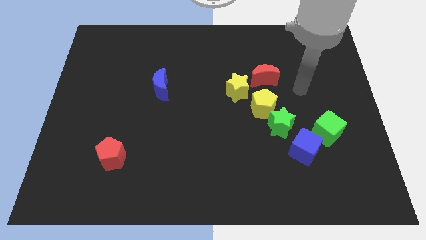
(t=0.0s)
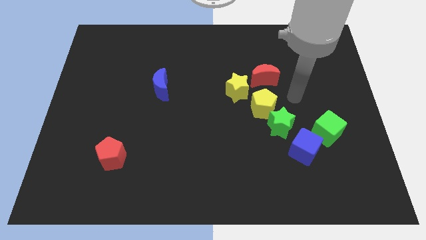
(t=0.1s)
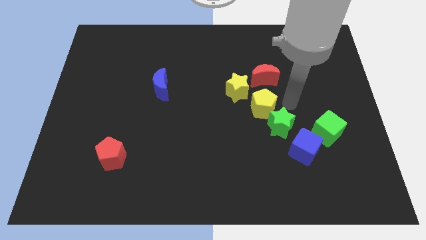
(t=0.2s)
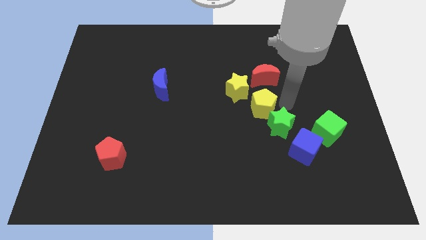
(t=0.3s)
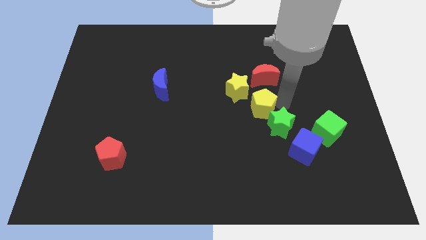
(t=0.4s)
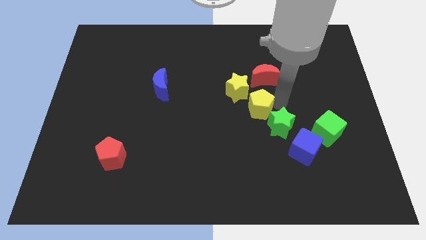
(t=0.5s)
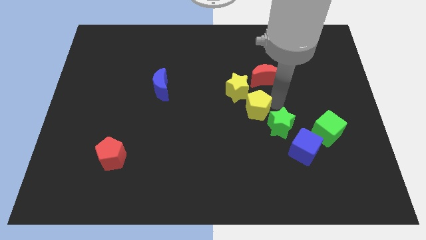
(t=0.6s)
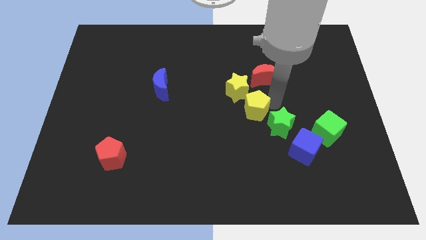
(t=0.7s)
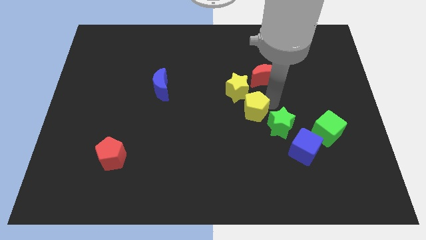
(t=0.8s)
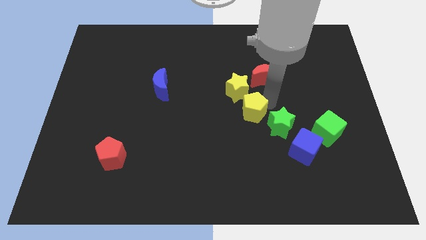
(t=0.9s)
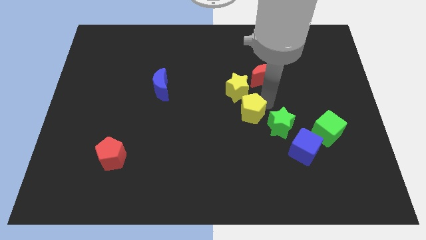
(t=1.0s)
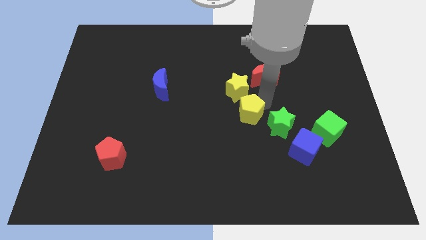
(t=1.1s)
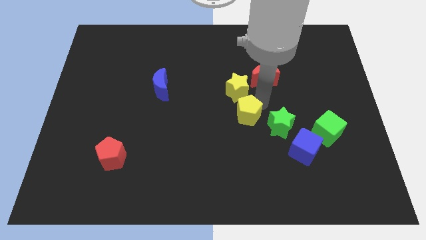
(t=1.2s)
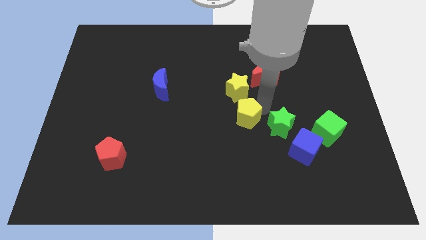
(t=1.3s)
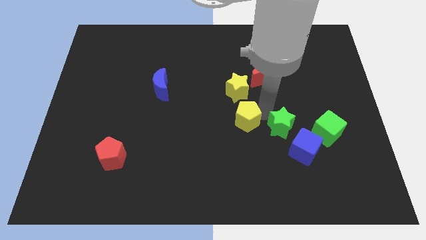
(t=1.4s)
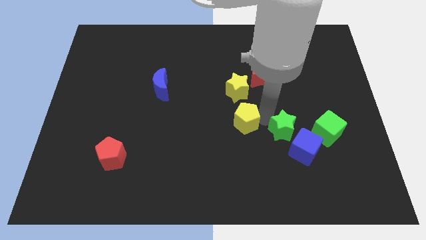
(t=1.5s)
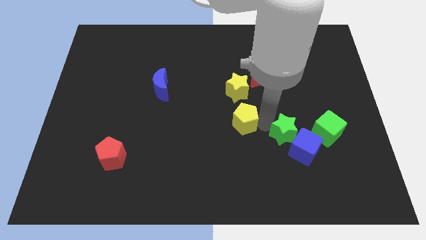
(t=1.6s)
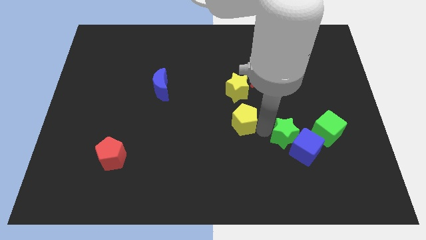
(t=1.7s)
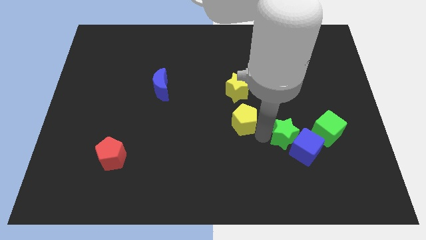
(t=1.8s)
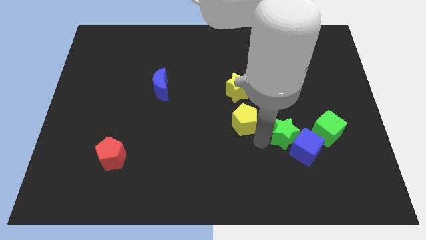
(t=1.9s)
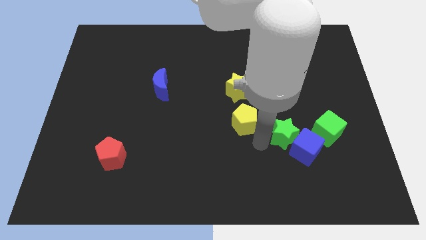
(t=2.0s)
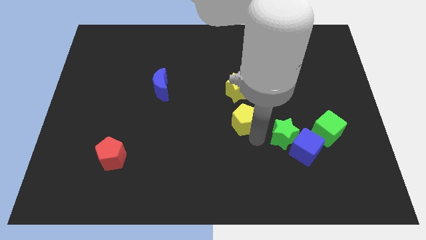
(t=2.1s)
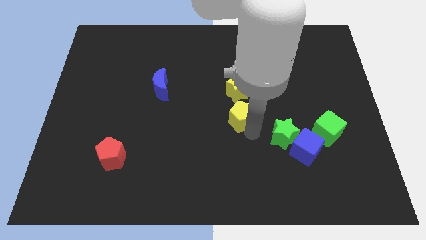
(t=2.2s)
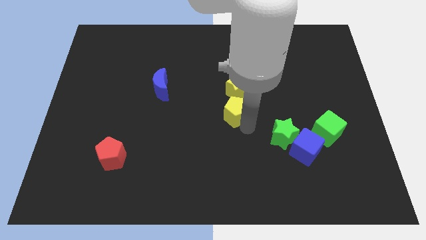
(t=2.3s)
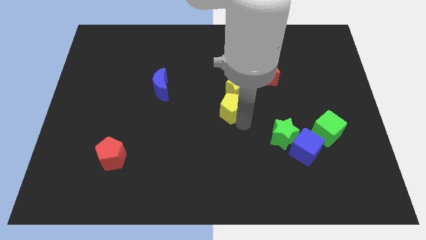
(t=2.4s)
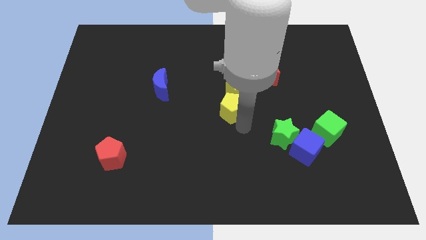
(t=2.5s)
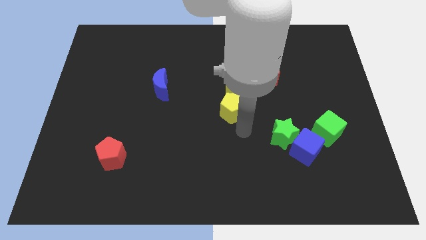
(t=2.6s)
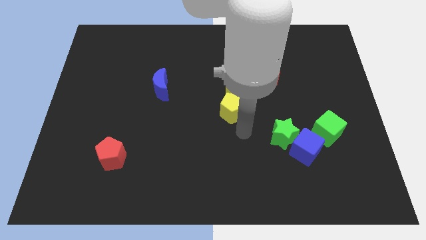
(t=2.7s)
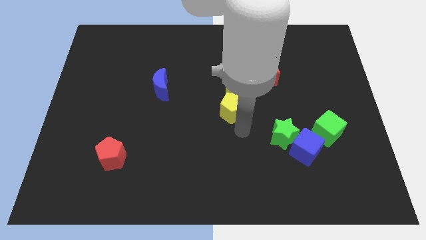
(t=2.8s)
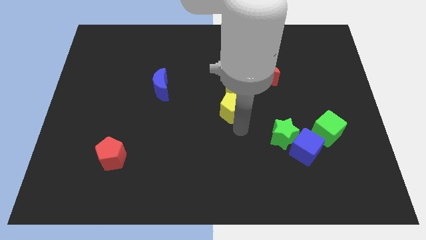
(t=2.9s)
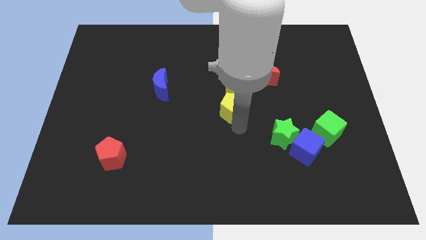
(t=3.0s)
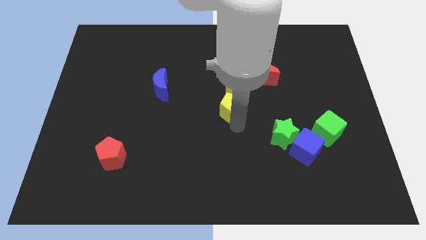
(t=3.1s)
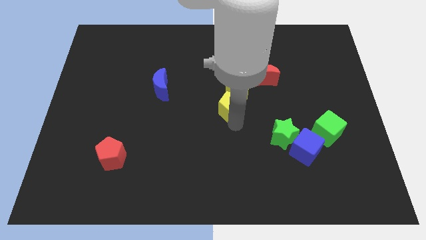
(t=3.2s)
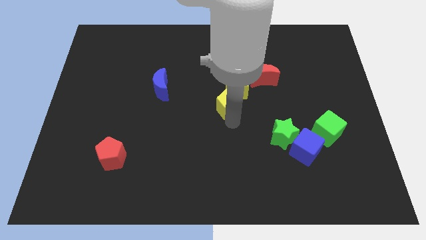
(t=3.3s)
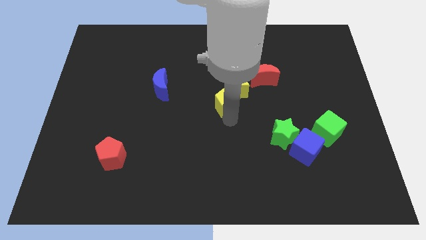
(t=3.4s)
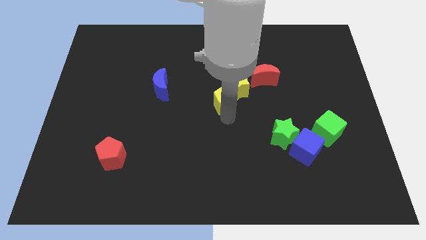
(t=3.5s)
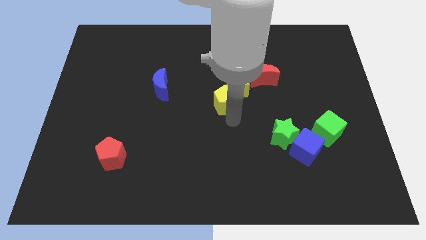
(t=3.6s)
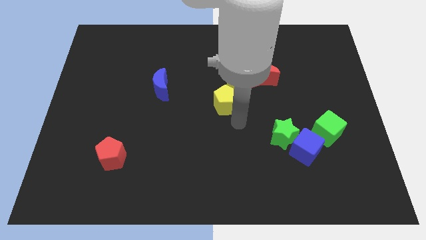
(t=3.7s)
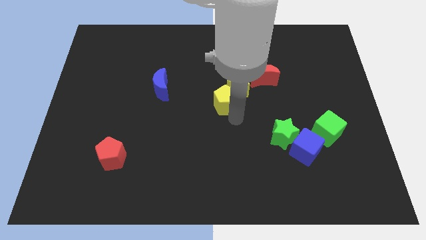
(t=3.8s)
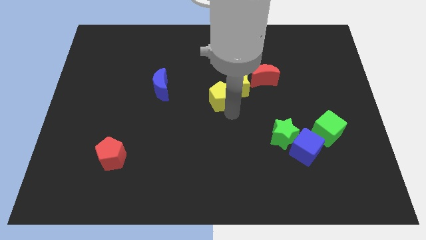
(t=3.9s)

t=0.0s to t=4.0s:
slide the yellow pentagon a bit upwards and then to the left

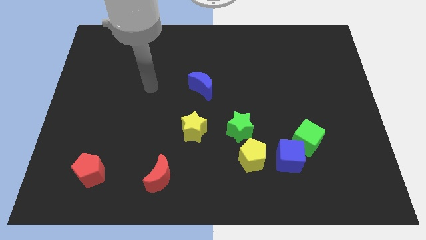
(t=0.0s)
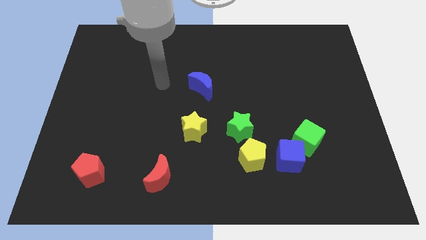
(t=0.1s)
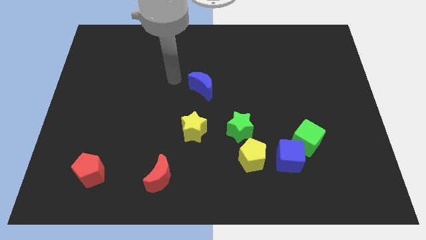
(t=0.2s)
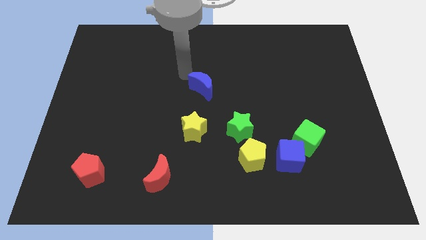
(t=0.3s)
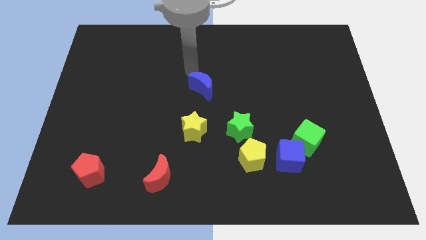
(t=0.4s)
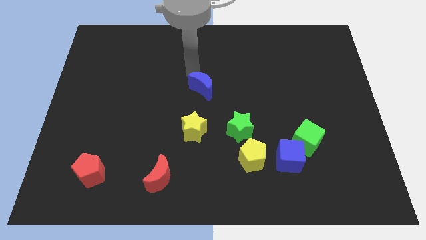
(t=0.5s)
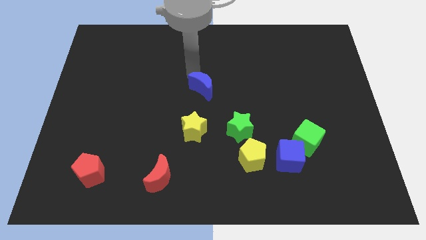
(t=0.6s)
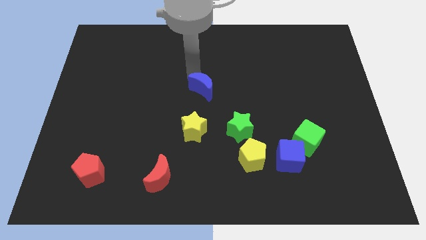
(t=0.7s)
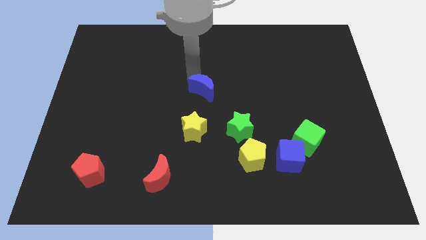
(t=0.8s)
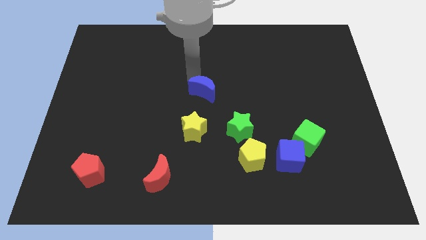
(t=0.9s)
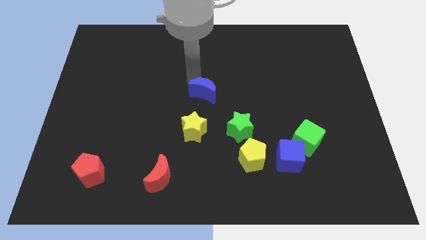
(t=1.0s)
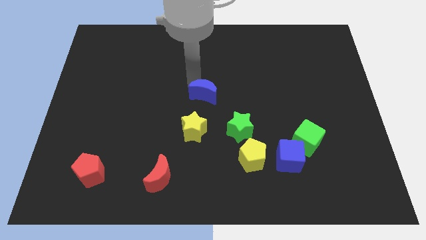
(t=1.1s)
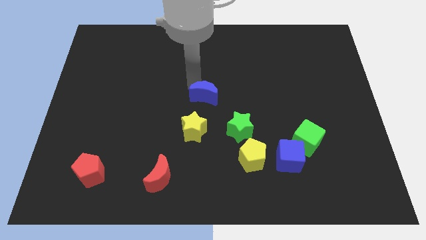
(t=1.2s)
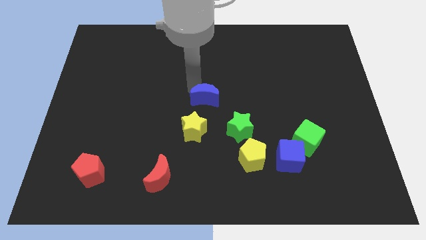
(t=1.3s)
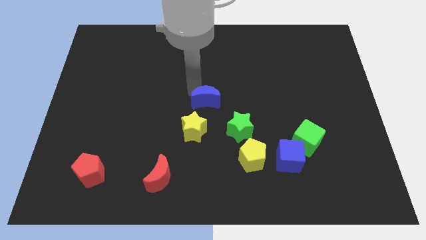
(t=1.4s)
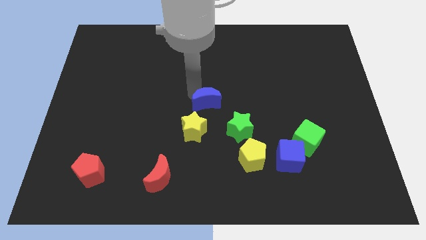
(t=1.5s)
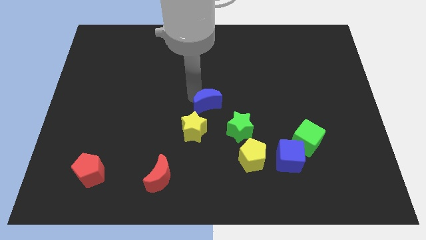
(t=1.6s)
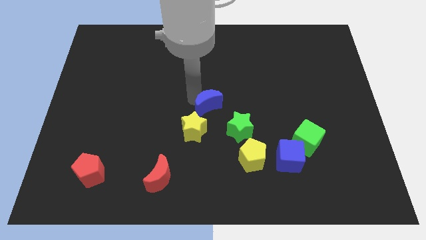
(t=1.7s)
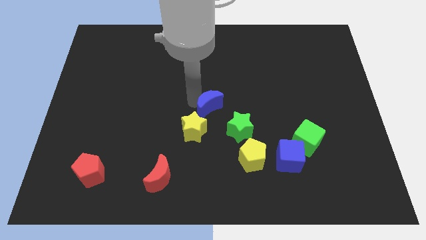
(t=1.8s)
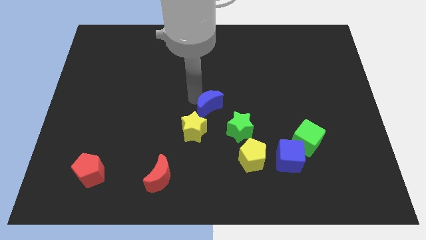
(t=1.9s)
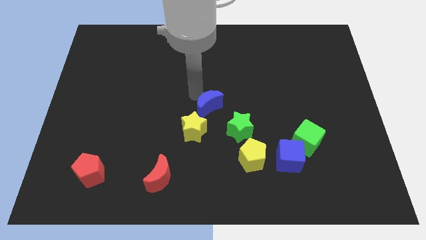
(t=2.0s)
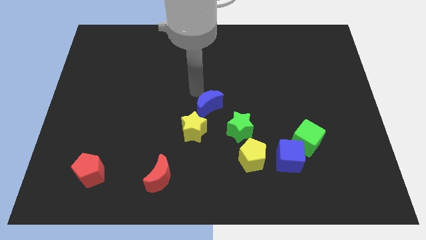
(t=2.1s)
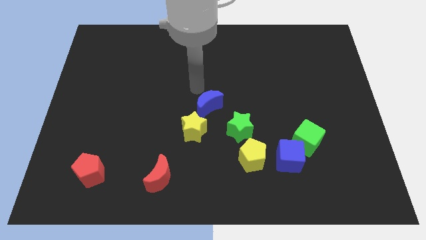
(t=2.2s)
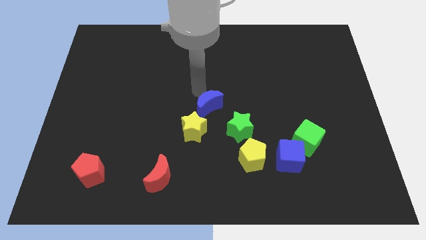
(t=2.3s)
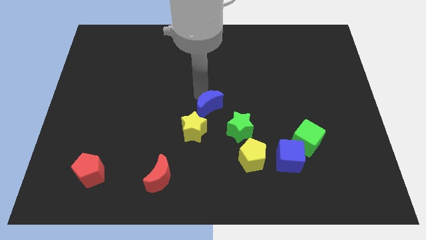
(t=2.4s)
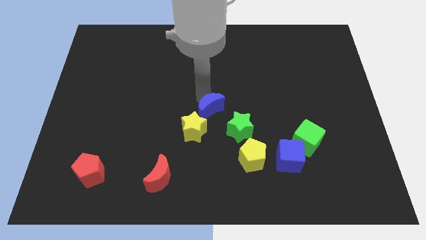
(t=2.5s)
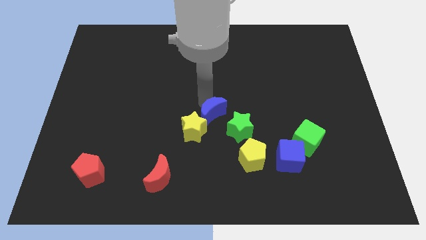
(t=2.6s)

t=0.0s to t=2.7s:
slightly push the blue moon downwards

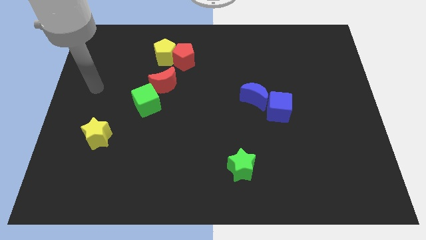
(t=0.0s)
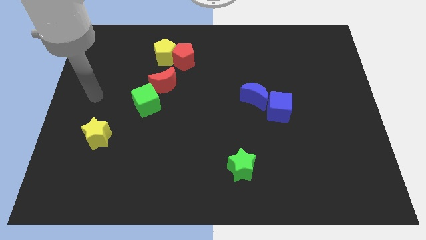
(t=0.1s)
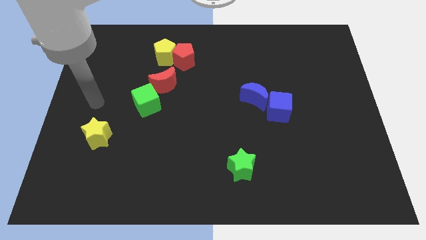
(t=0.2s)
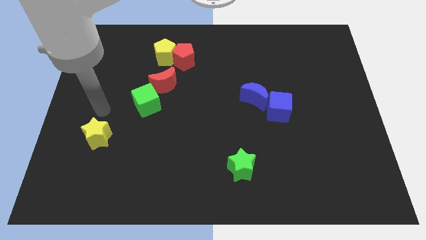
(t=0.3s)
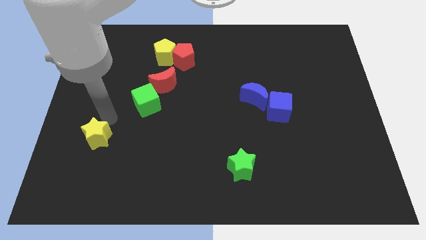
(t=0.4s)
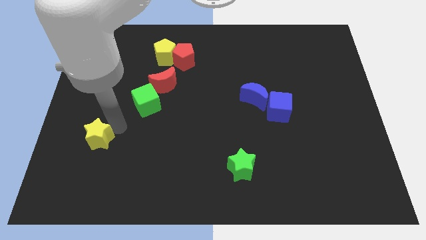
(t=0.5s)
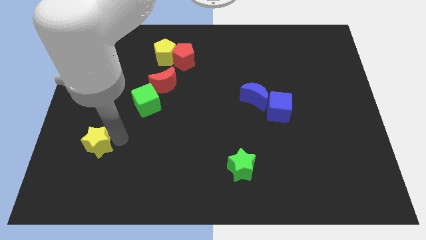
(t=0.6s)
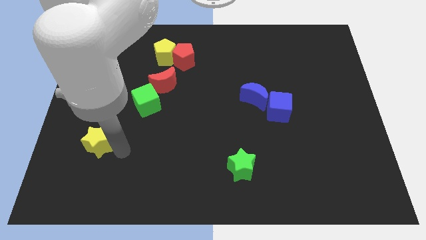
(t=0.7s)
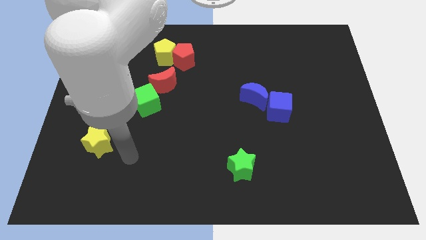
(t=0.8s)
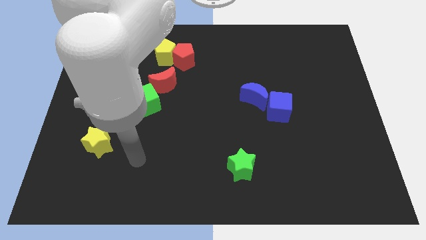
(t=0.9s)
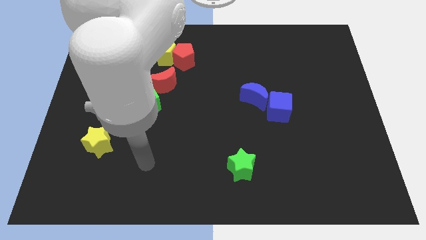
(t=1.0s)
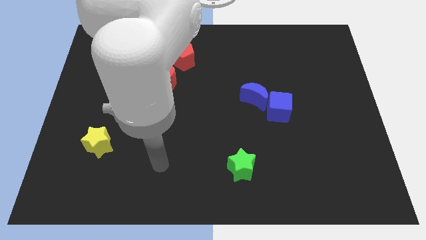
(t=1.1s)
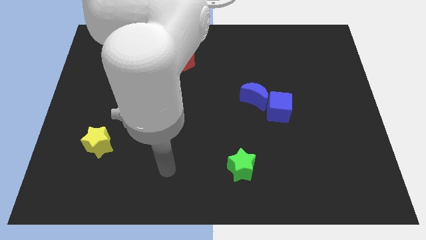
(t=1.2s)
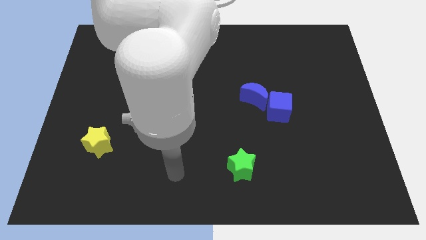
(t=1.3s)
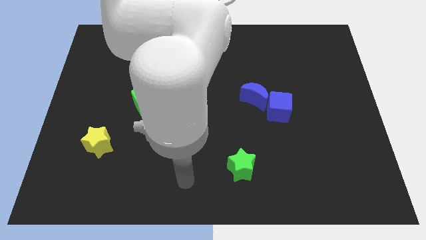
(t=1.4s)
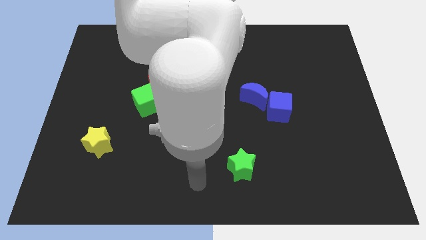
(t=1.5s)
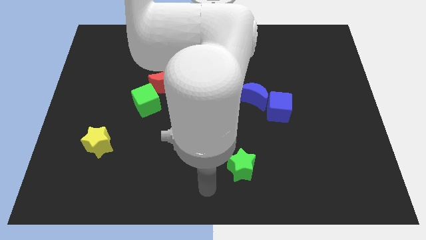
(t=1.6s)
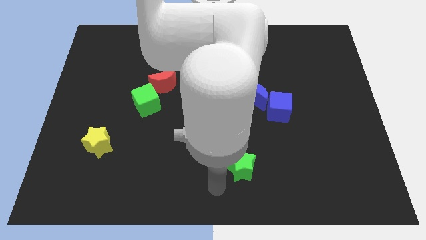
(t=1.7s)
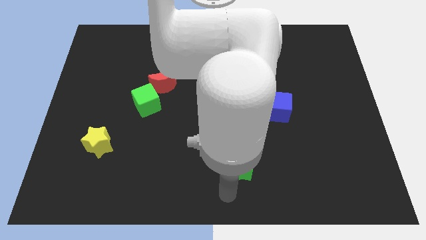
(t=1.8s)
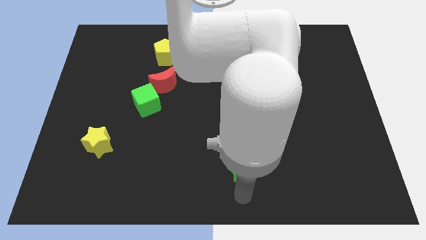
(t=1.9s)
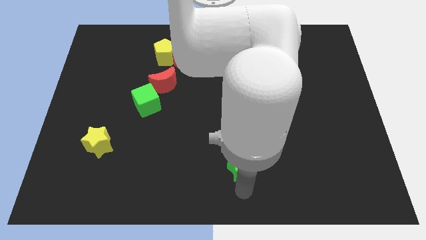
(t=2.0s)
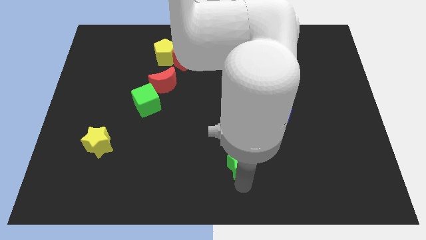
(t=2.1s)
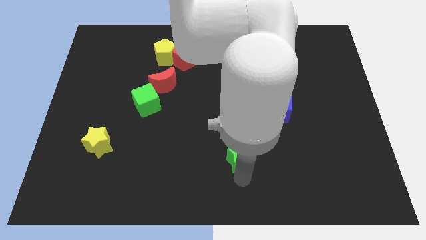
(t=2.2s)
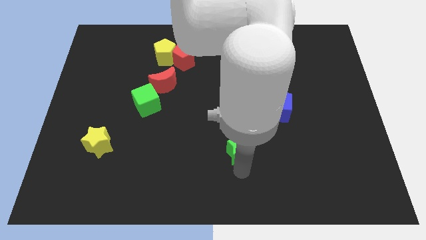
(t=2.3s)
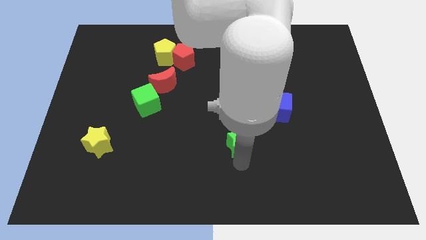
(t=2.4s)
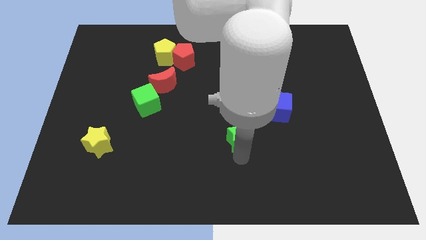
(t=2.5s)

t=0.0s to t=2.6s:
slide the green star somewhat up
